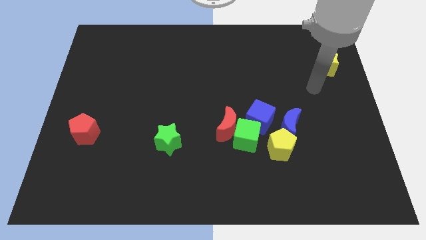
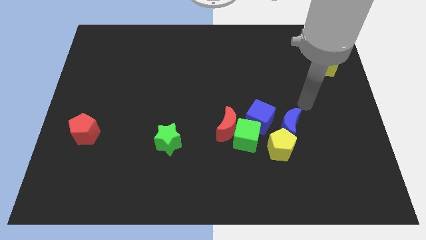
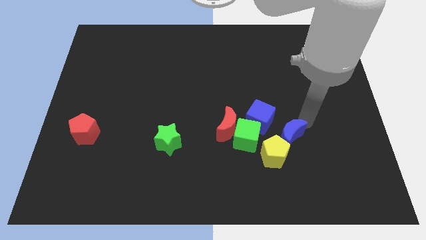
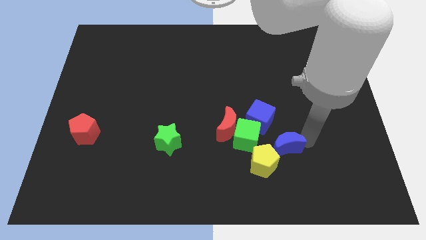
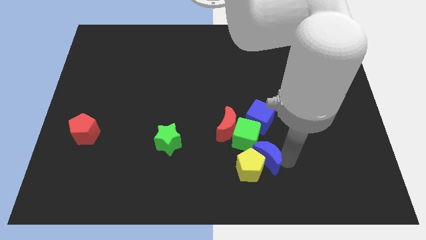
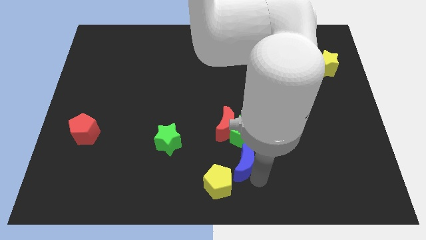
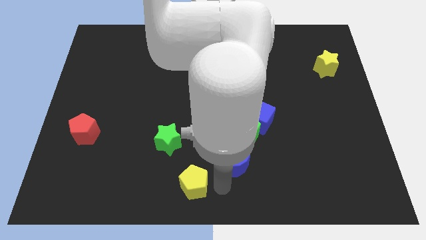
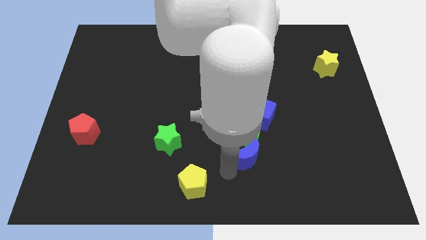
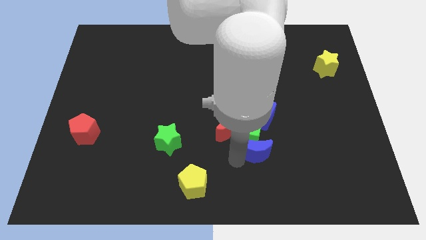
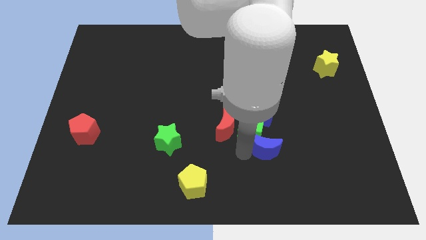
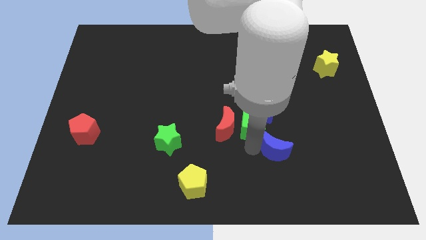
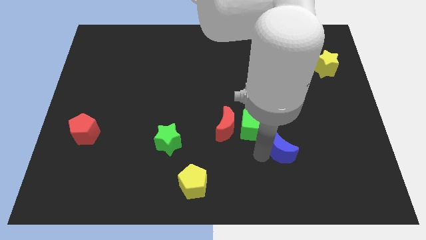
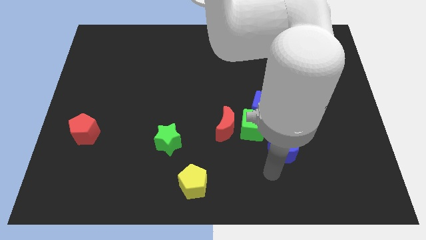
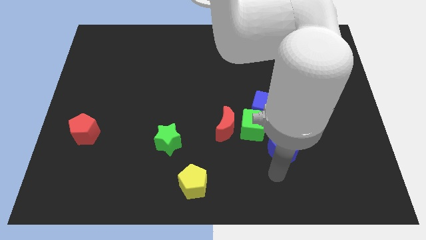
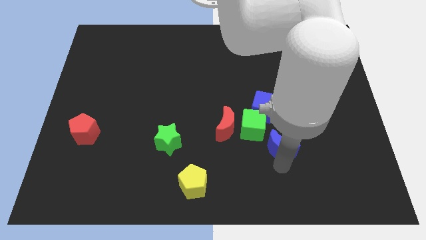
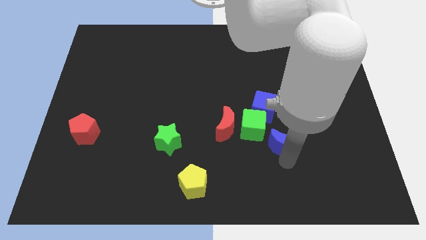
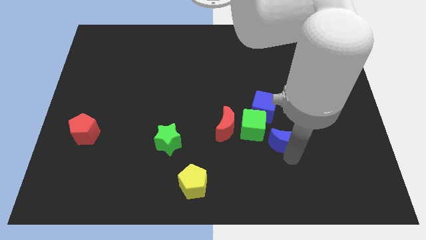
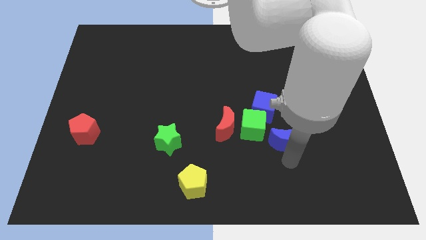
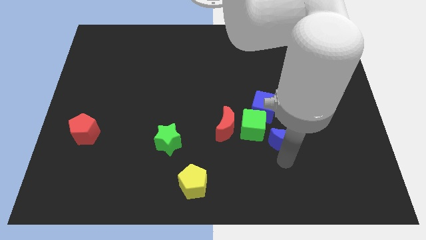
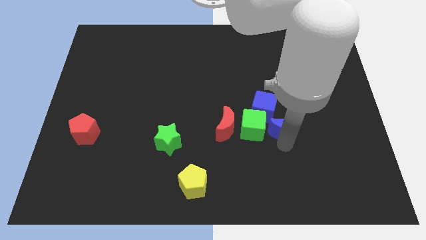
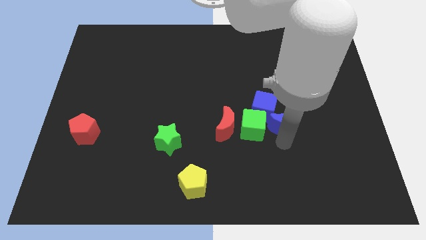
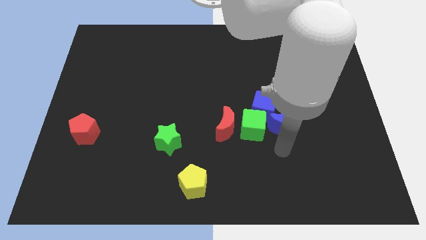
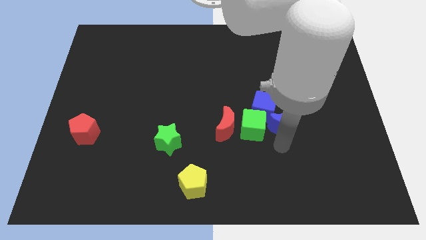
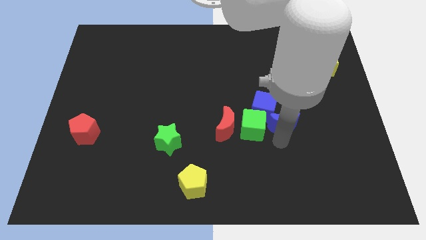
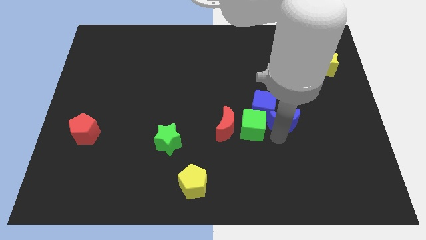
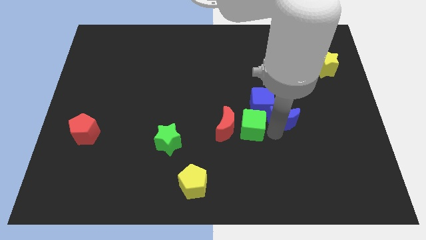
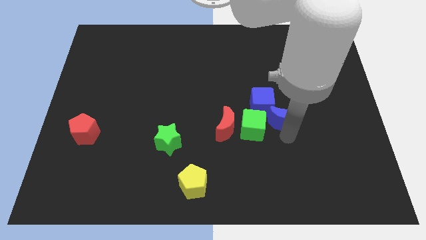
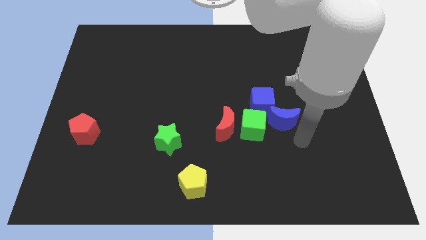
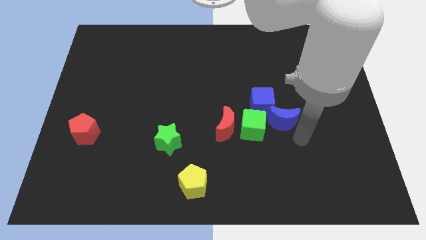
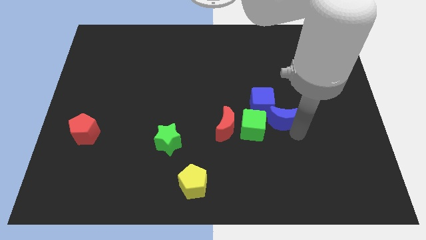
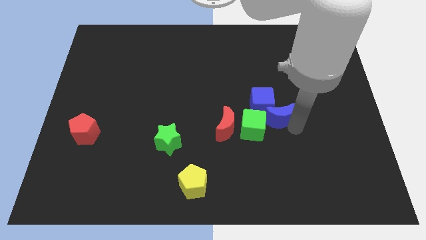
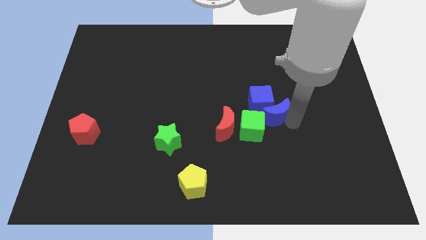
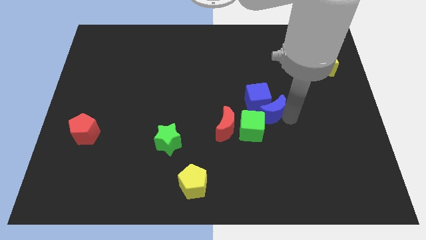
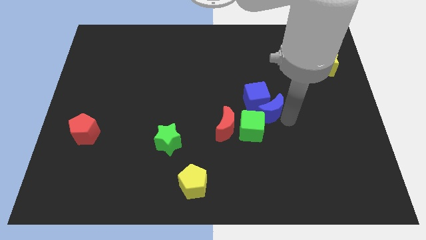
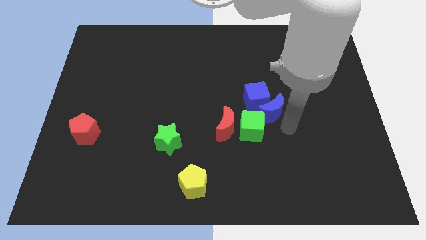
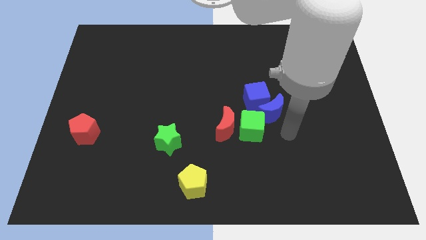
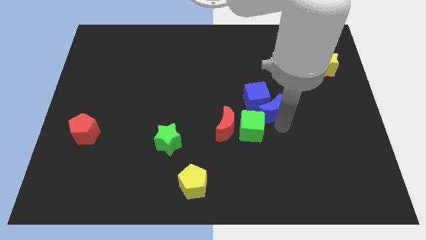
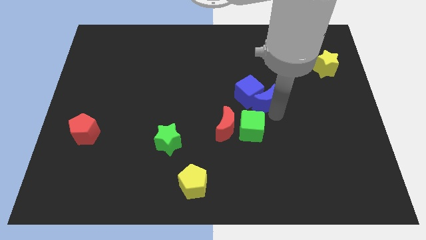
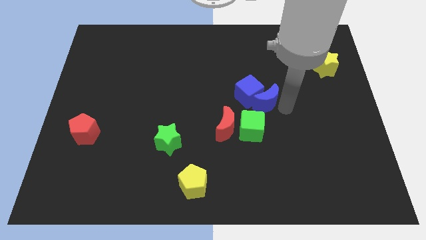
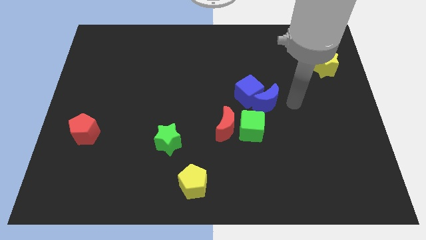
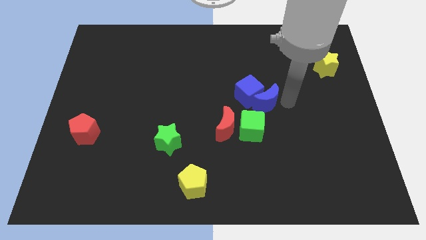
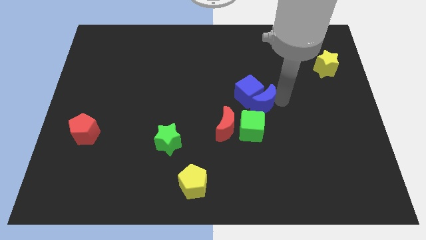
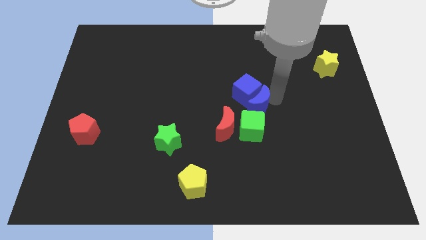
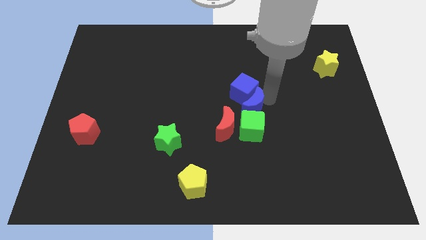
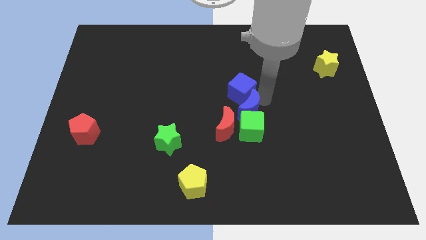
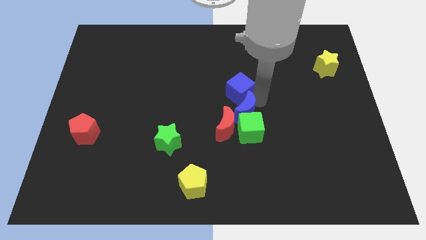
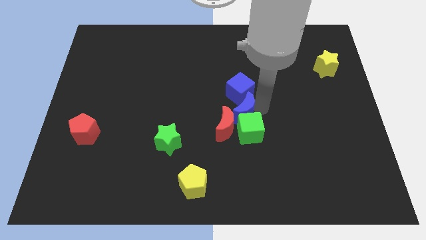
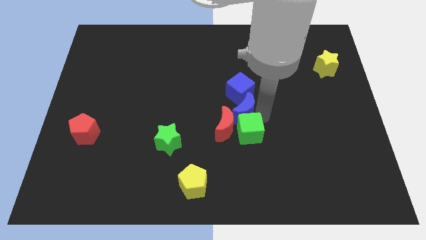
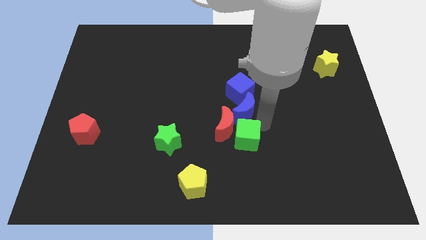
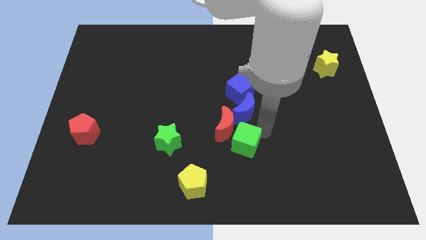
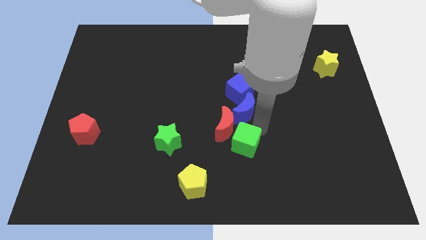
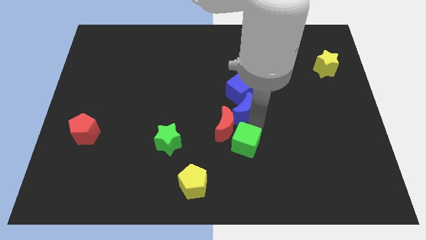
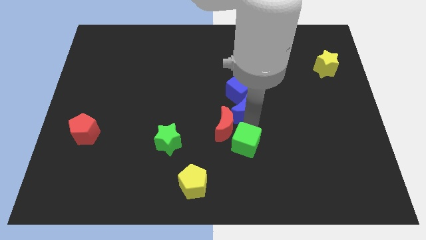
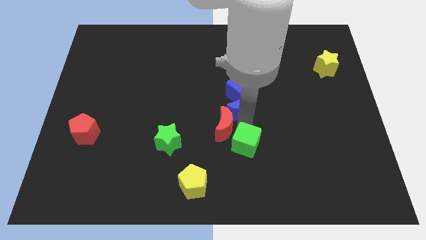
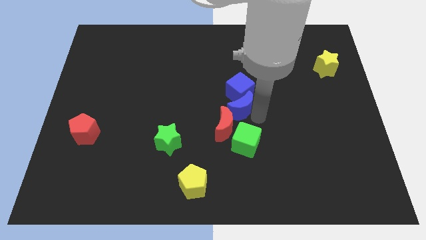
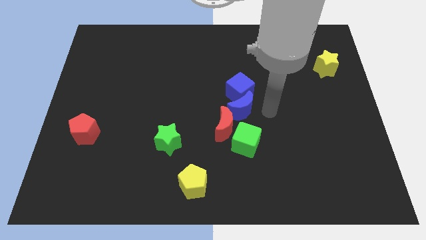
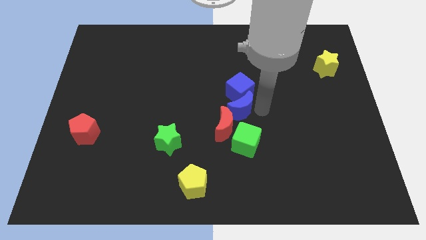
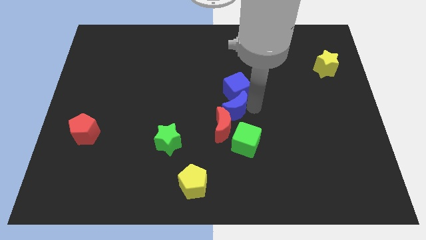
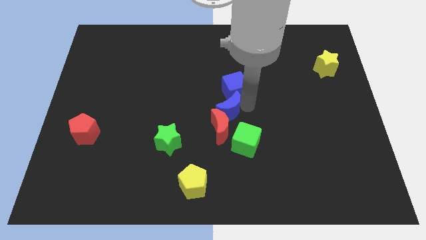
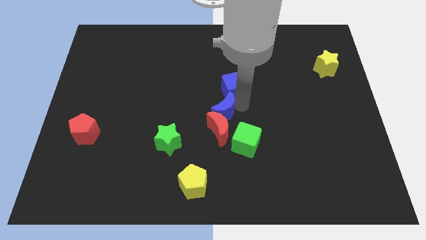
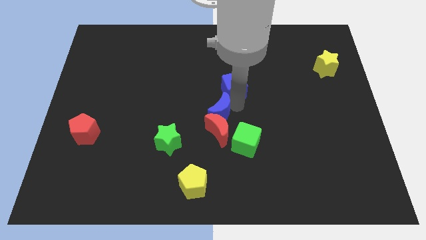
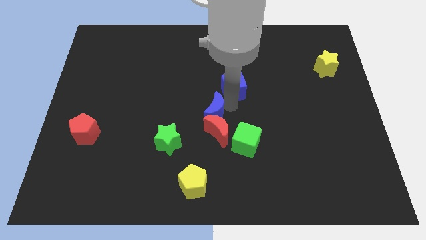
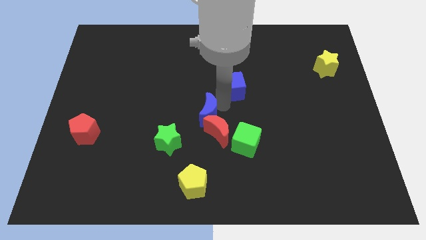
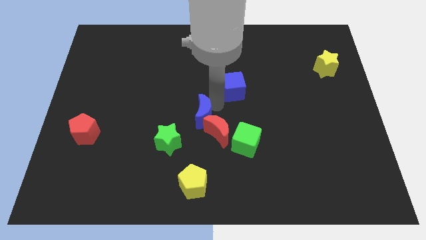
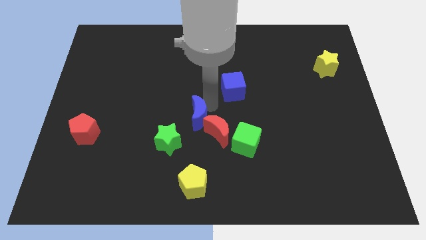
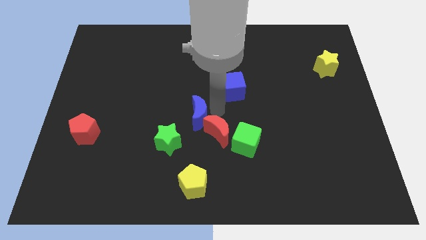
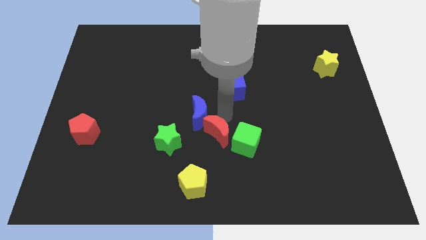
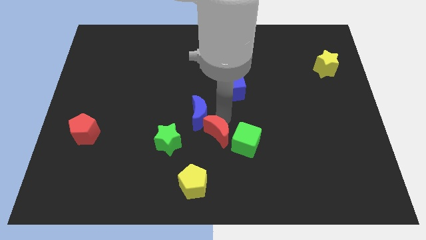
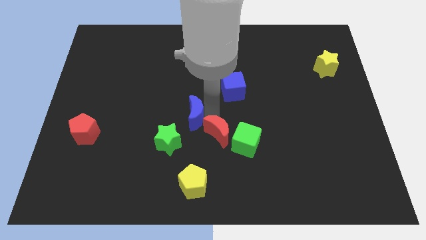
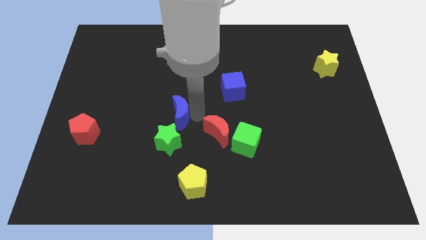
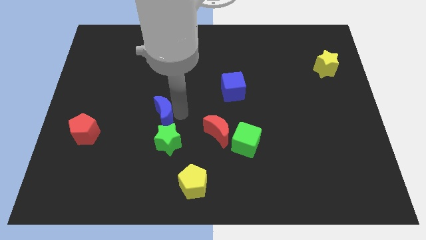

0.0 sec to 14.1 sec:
put the blue moon to the top left side of the green star

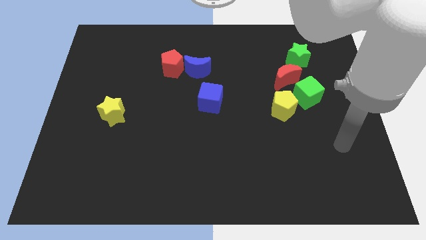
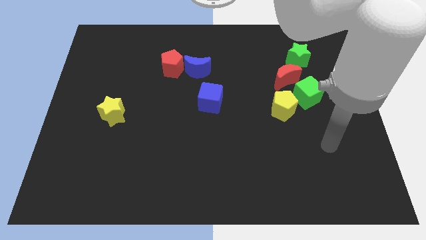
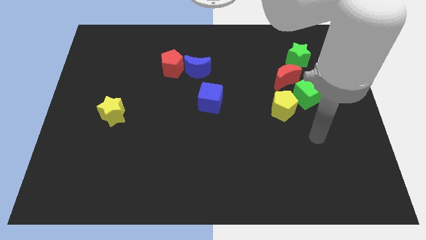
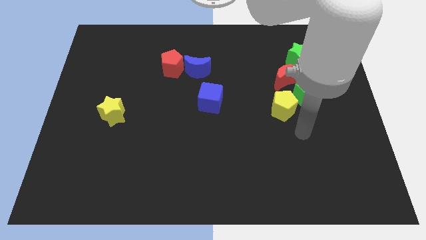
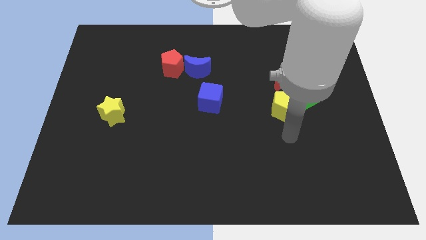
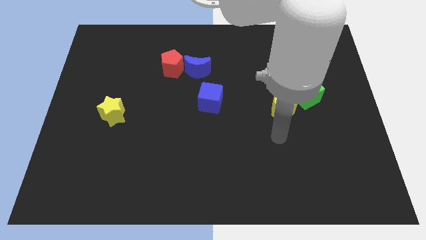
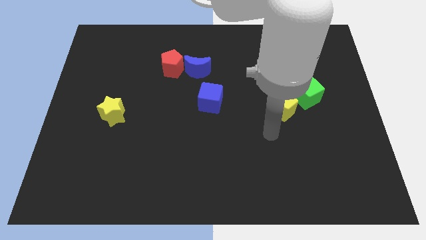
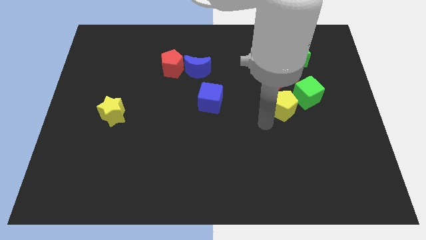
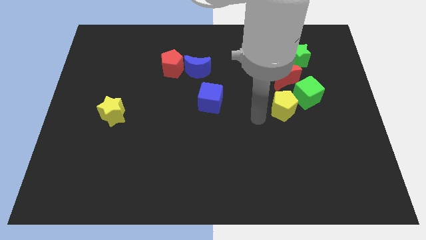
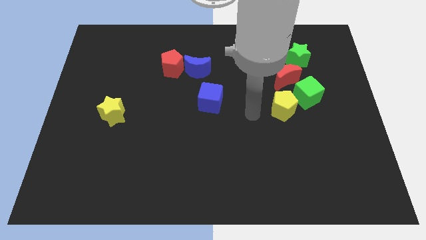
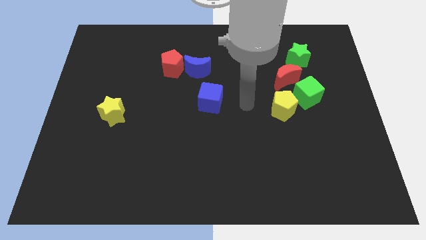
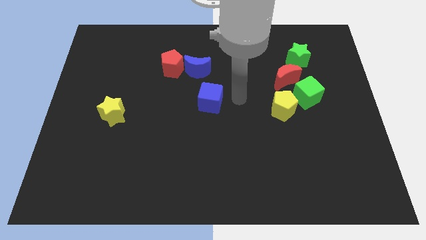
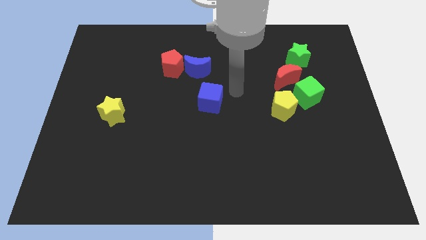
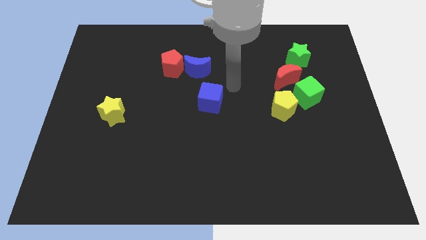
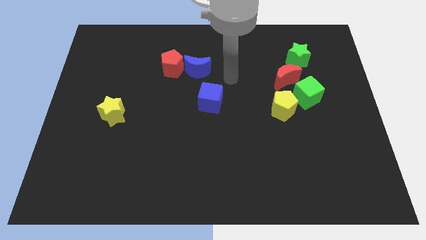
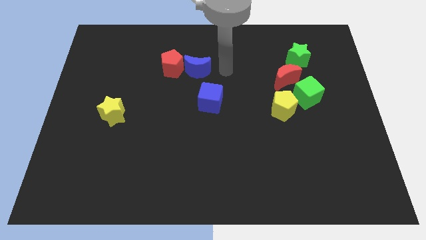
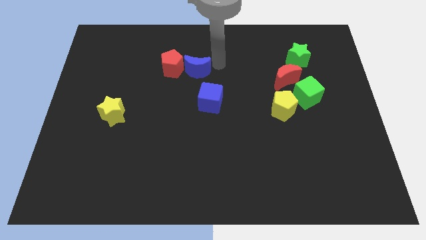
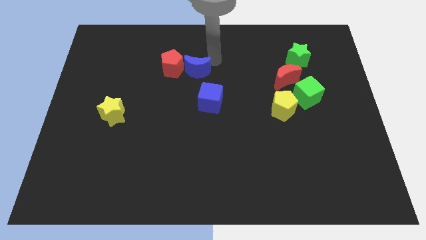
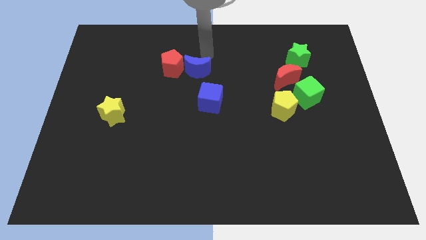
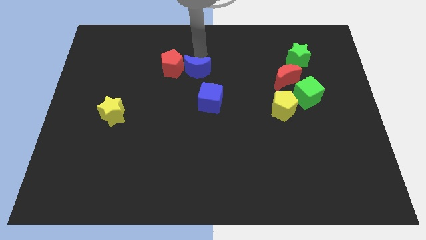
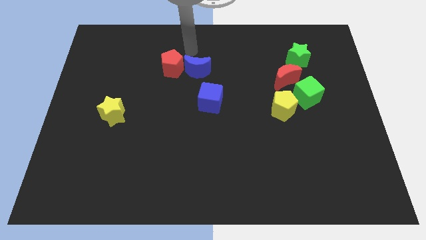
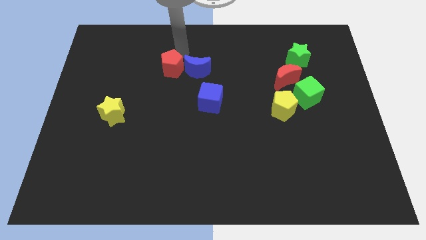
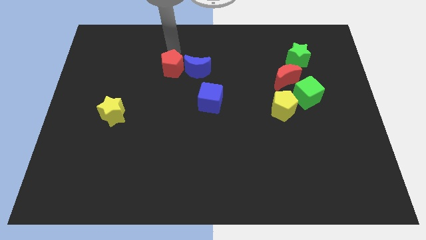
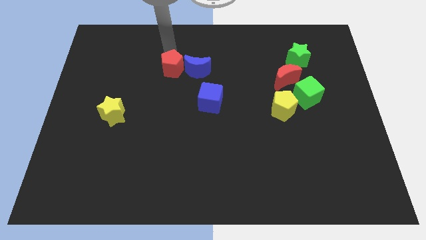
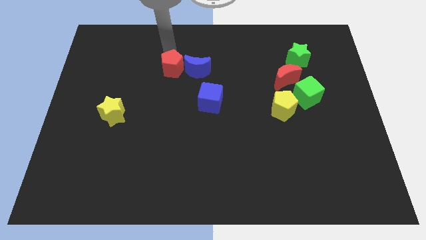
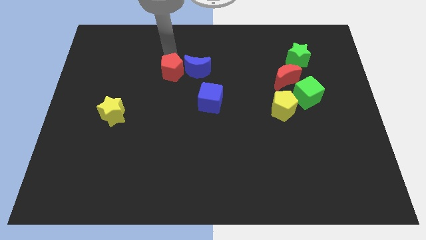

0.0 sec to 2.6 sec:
slide the red pentagon diagonally down and to the left of the blue moon
